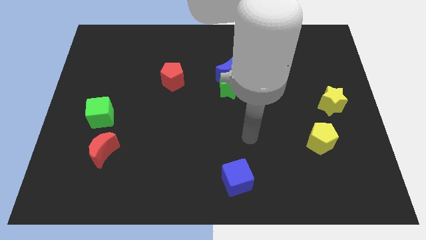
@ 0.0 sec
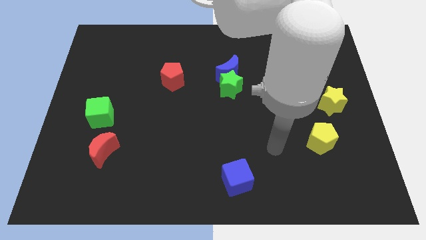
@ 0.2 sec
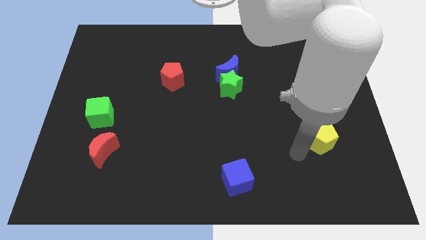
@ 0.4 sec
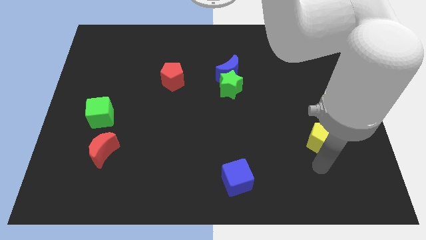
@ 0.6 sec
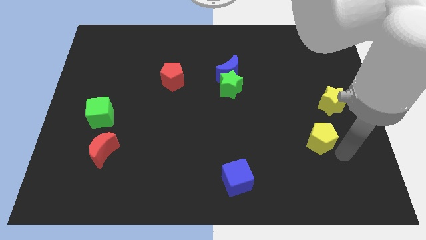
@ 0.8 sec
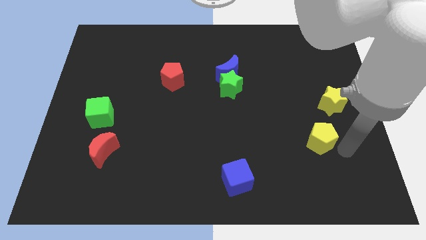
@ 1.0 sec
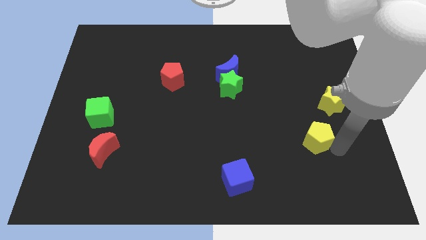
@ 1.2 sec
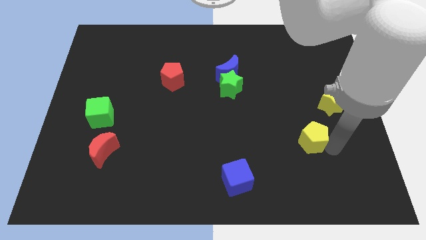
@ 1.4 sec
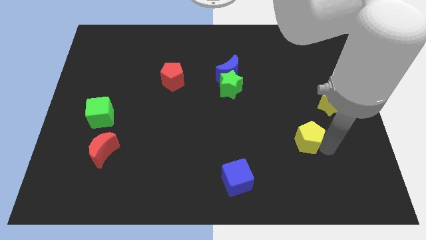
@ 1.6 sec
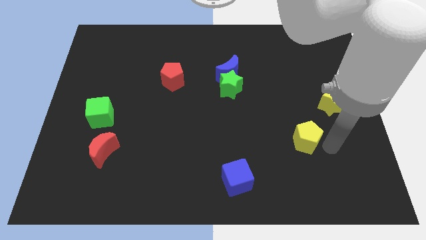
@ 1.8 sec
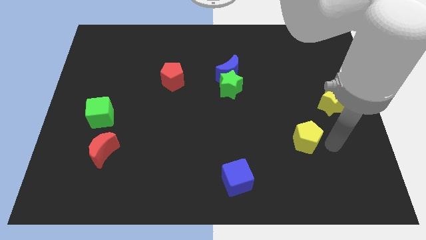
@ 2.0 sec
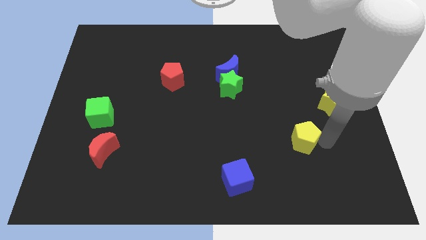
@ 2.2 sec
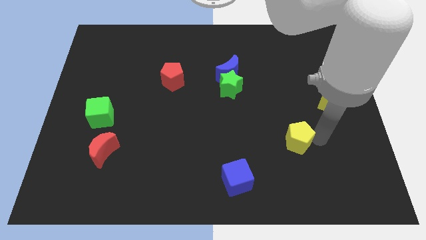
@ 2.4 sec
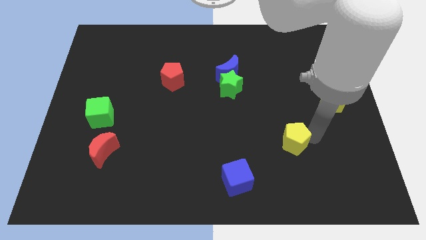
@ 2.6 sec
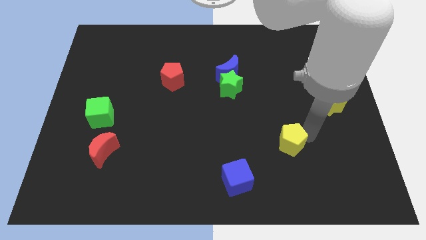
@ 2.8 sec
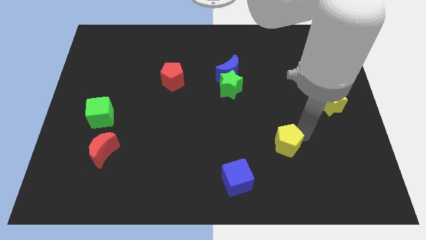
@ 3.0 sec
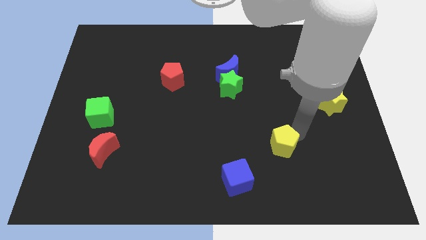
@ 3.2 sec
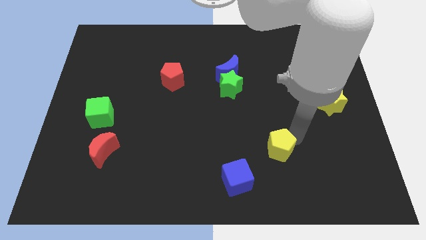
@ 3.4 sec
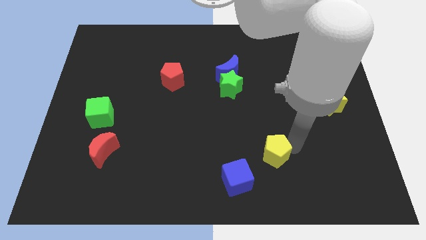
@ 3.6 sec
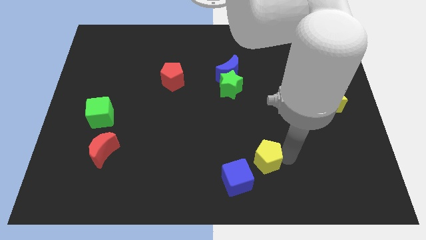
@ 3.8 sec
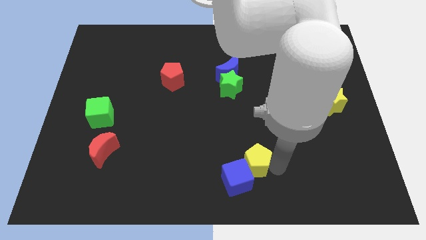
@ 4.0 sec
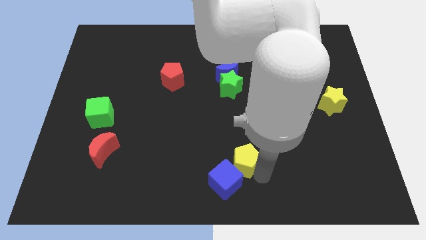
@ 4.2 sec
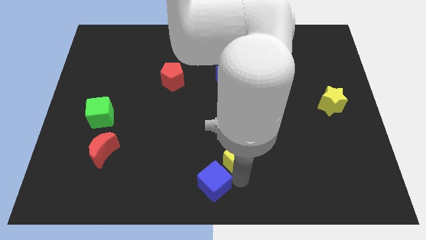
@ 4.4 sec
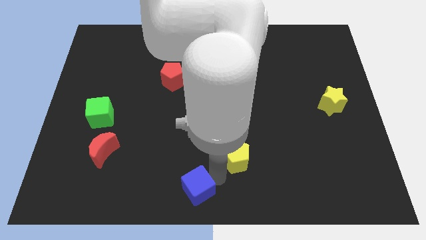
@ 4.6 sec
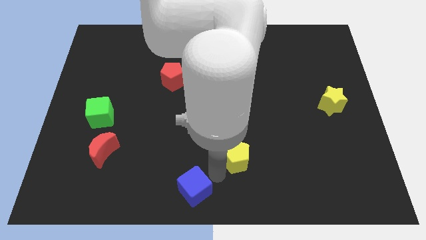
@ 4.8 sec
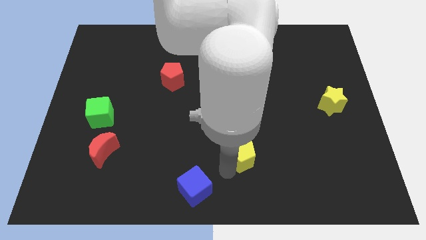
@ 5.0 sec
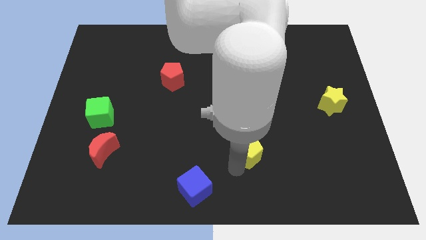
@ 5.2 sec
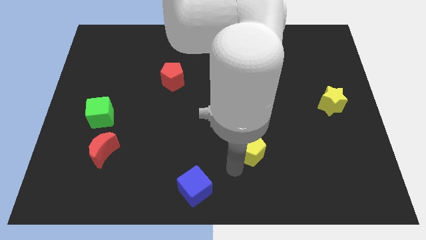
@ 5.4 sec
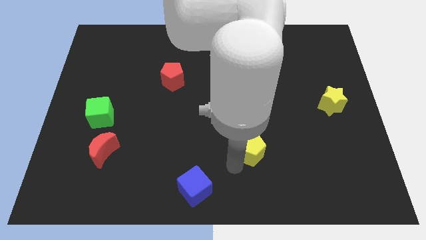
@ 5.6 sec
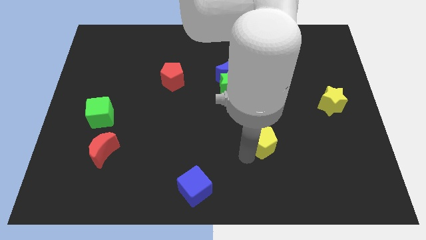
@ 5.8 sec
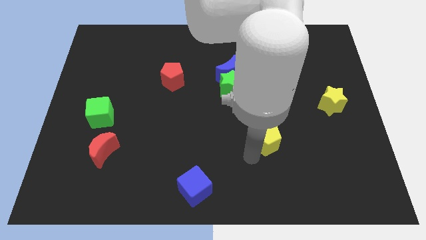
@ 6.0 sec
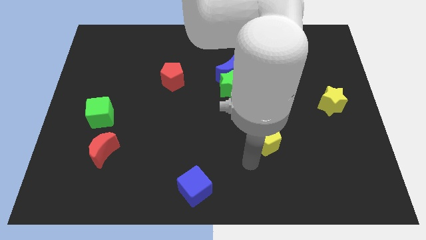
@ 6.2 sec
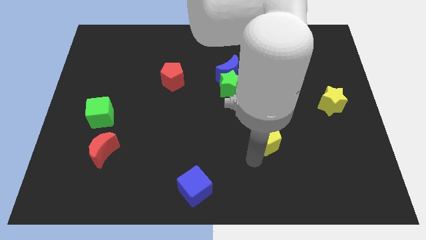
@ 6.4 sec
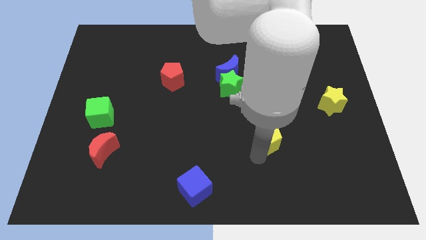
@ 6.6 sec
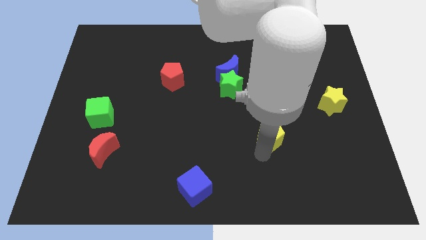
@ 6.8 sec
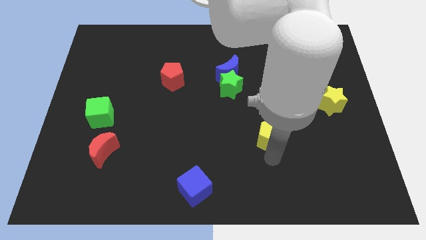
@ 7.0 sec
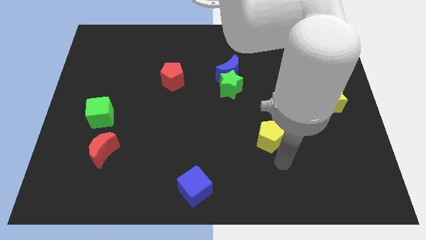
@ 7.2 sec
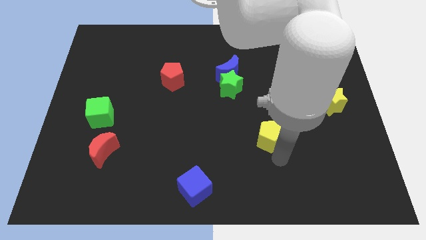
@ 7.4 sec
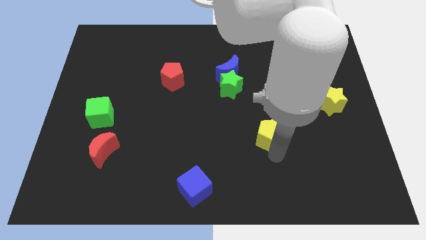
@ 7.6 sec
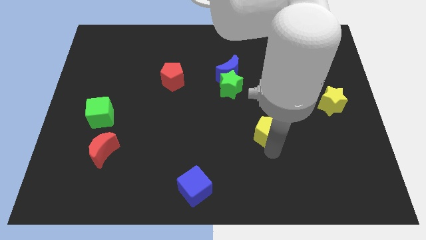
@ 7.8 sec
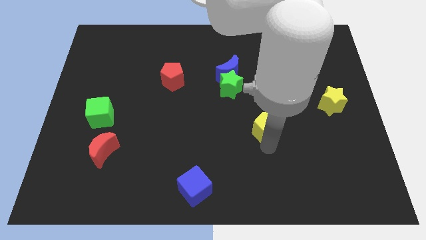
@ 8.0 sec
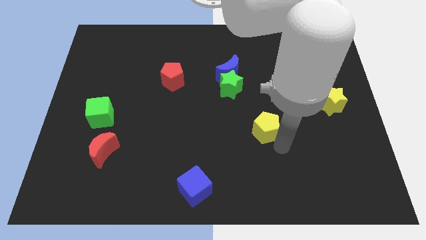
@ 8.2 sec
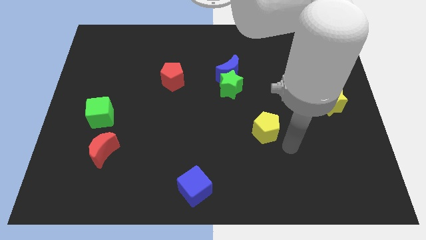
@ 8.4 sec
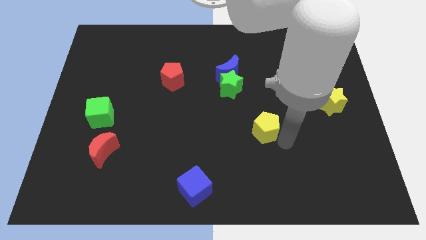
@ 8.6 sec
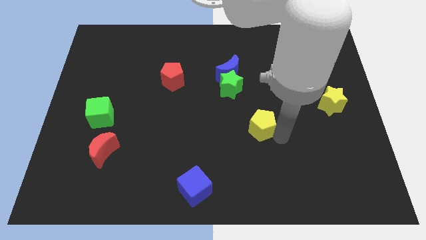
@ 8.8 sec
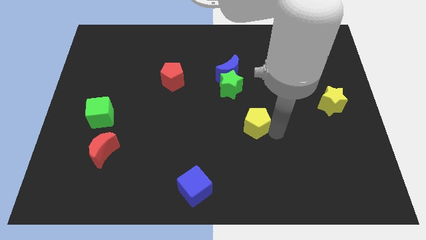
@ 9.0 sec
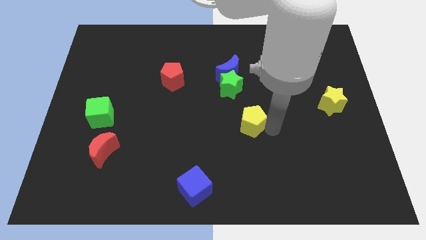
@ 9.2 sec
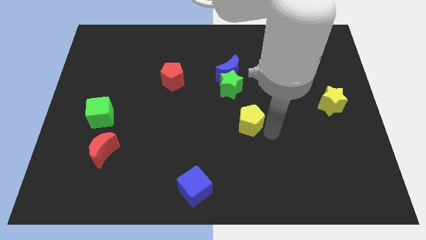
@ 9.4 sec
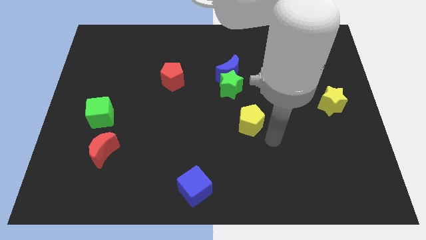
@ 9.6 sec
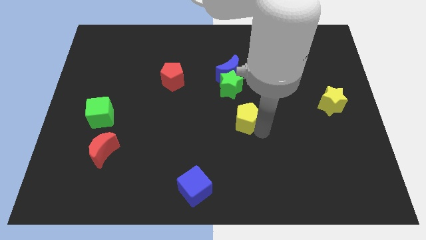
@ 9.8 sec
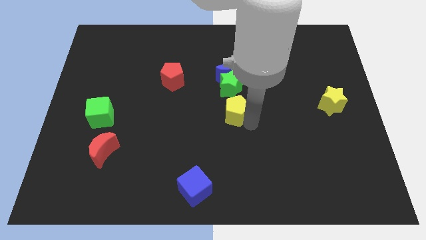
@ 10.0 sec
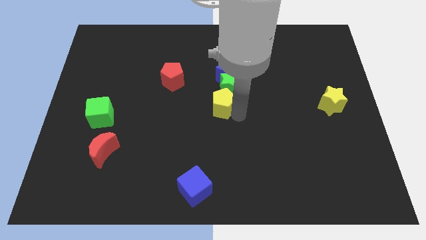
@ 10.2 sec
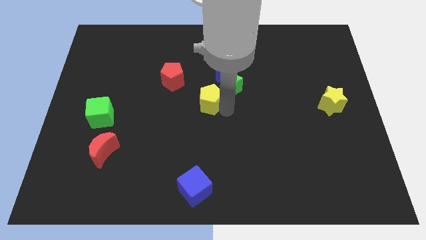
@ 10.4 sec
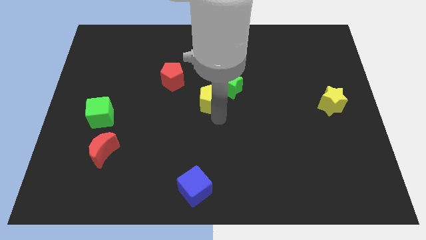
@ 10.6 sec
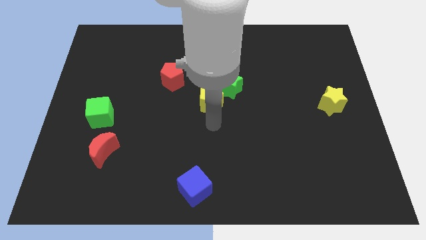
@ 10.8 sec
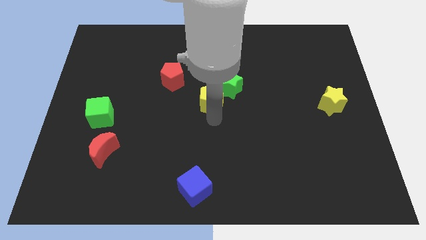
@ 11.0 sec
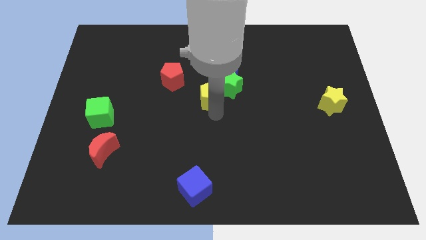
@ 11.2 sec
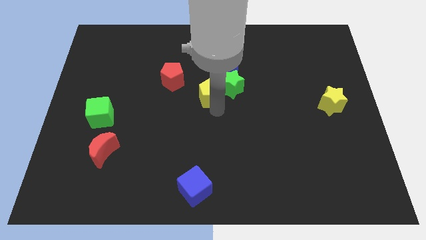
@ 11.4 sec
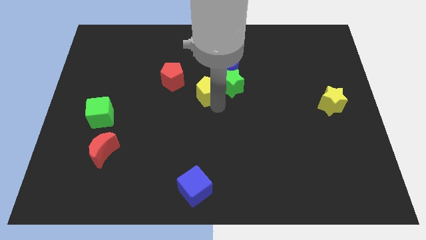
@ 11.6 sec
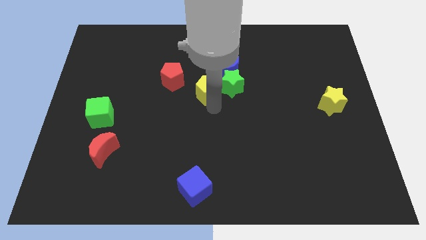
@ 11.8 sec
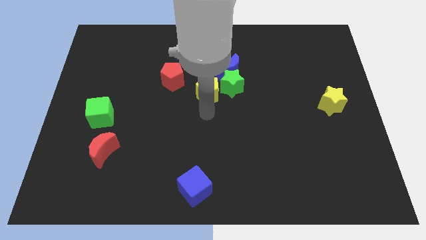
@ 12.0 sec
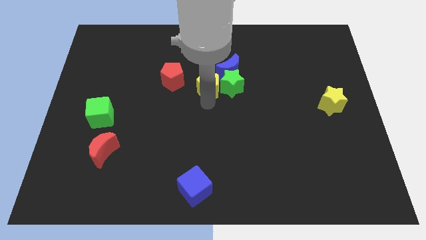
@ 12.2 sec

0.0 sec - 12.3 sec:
push the yellow pentagon to the top left of the green star

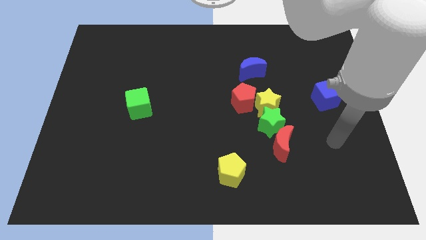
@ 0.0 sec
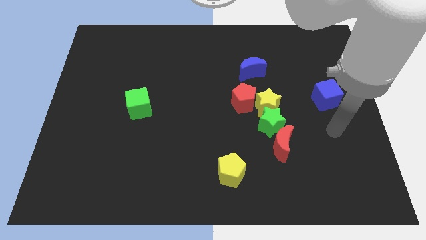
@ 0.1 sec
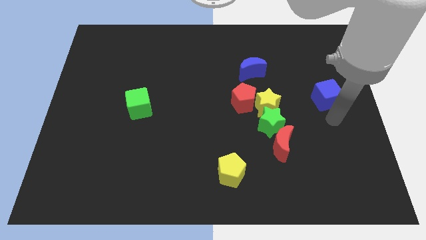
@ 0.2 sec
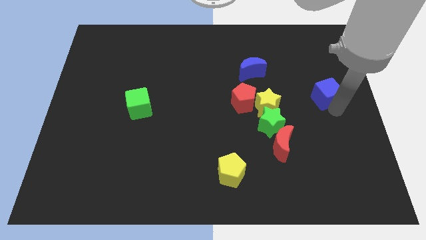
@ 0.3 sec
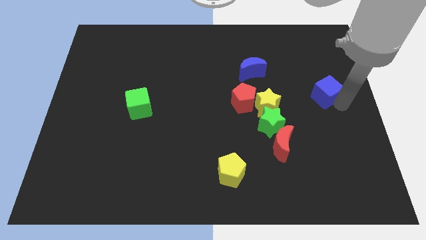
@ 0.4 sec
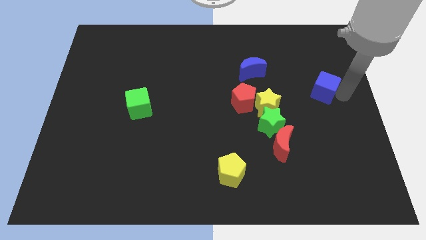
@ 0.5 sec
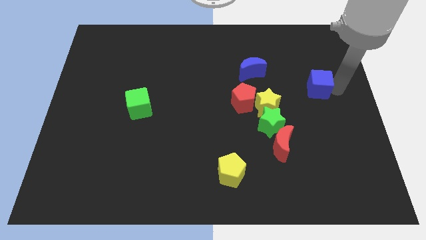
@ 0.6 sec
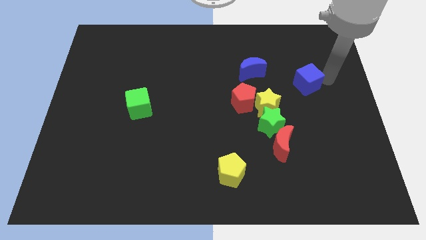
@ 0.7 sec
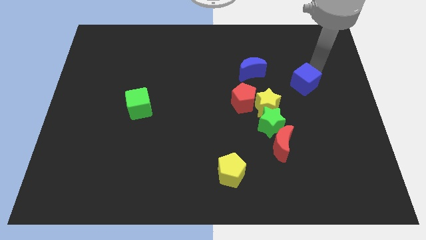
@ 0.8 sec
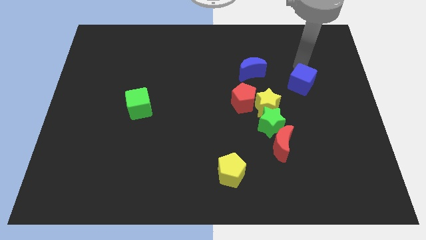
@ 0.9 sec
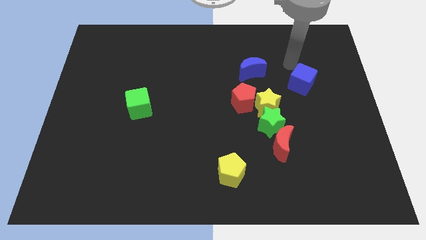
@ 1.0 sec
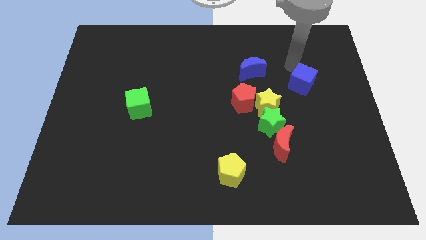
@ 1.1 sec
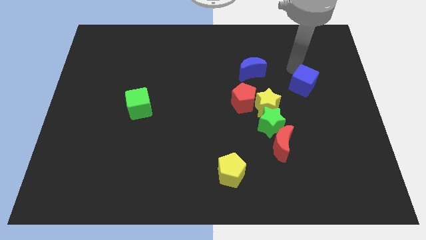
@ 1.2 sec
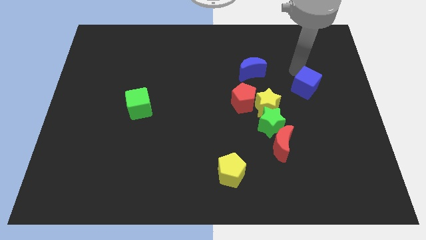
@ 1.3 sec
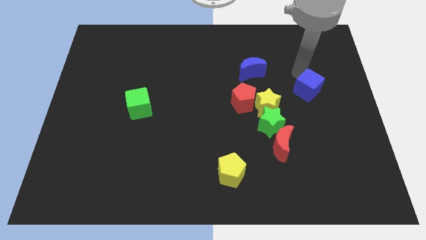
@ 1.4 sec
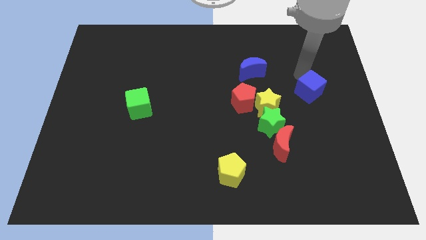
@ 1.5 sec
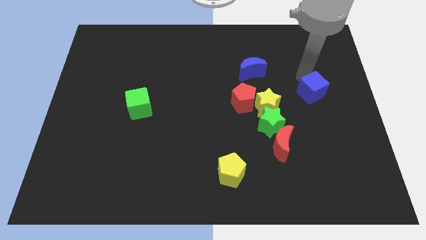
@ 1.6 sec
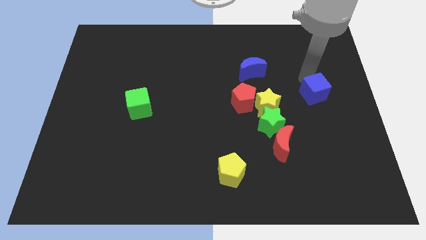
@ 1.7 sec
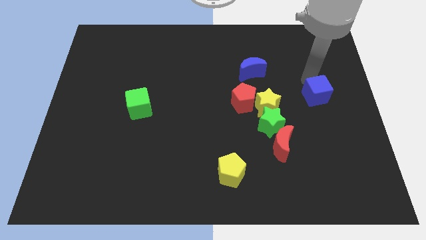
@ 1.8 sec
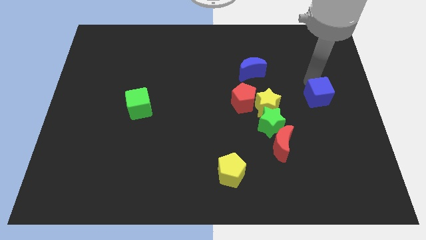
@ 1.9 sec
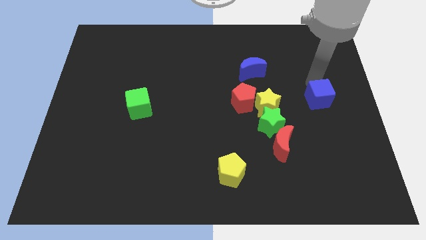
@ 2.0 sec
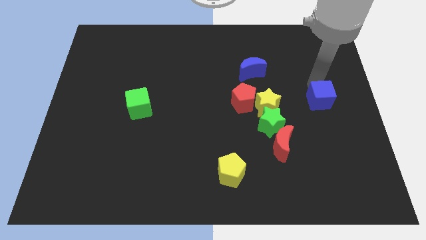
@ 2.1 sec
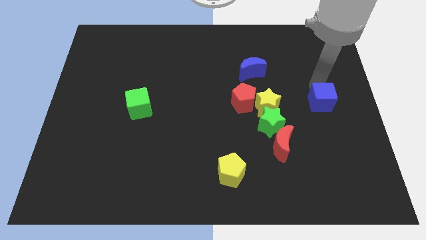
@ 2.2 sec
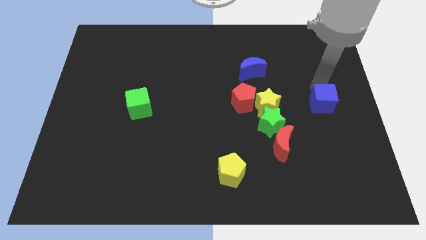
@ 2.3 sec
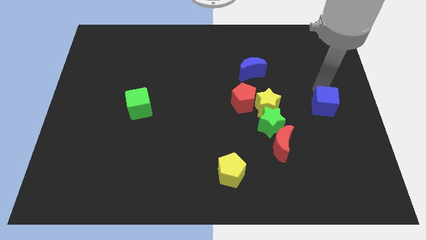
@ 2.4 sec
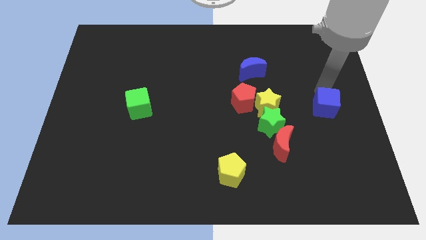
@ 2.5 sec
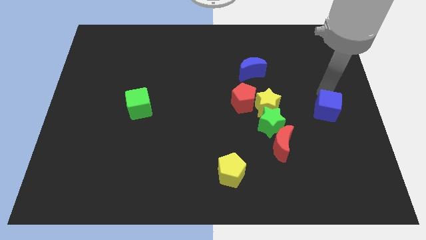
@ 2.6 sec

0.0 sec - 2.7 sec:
put the blue cube to the right side of the green star
